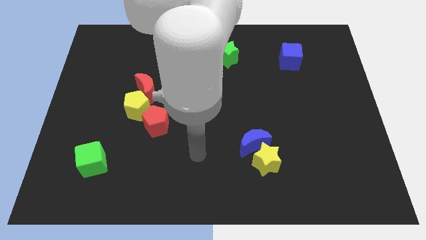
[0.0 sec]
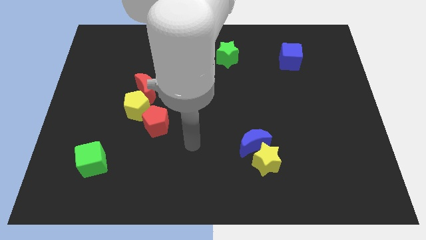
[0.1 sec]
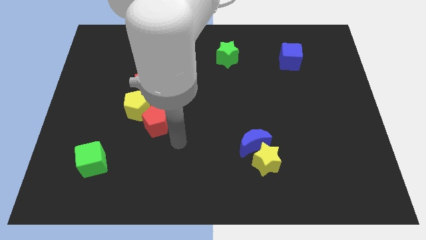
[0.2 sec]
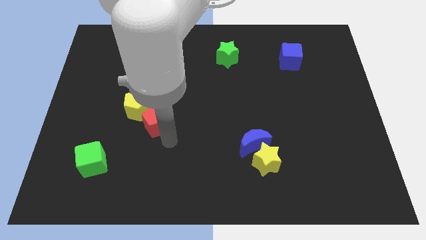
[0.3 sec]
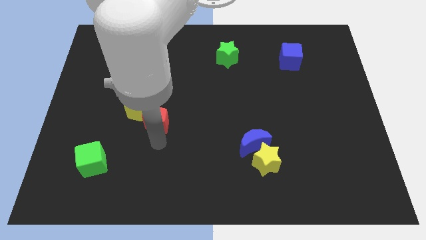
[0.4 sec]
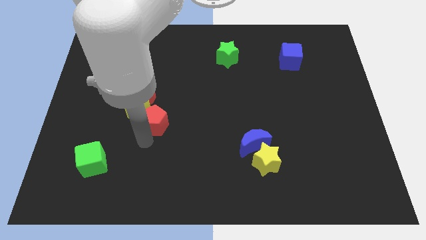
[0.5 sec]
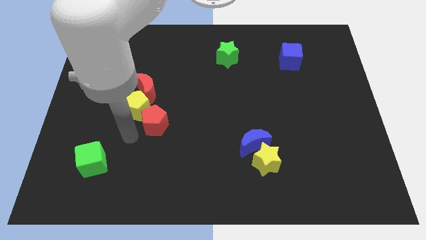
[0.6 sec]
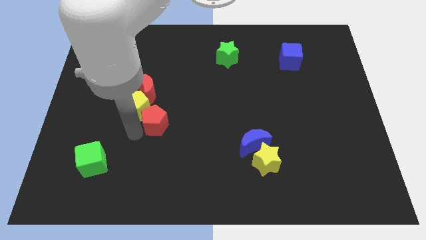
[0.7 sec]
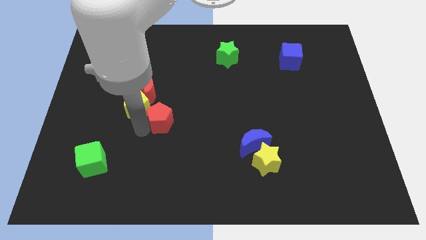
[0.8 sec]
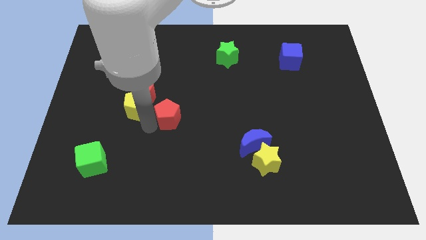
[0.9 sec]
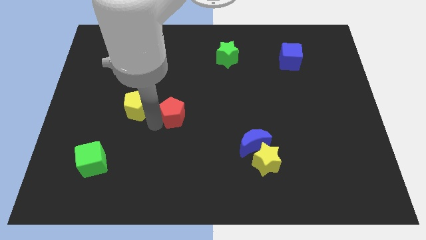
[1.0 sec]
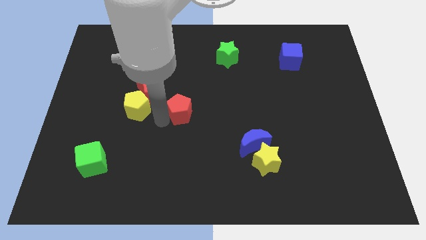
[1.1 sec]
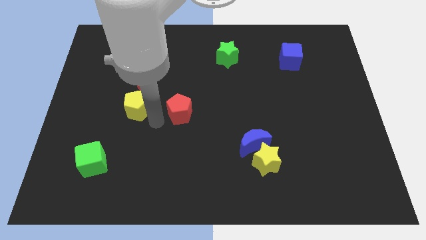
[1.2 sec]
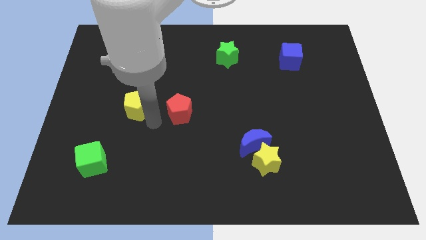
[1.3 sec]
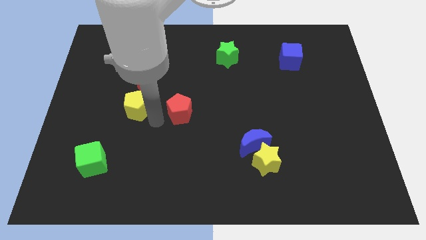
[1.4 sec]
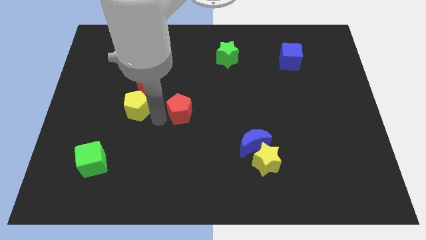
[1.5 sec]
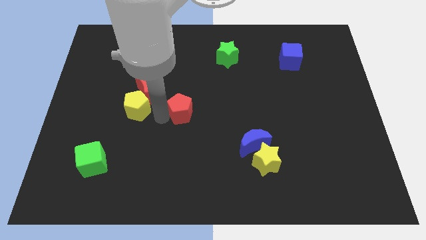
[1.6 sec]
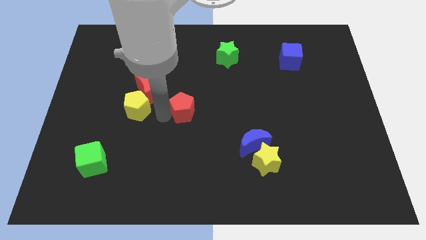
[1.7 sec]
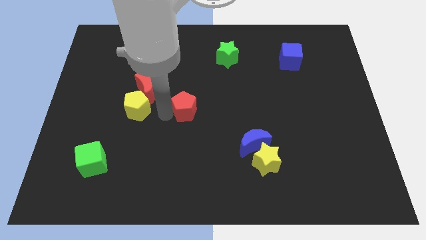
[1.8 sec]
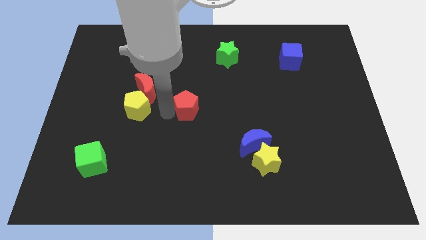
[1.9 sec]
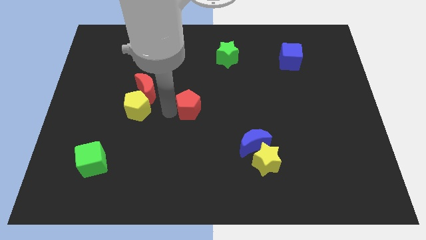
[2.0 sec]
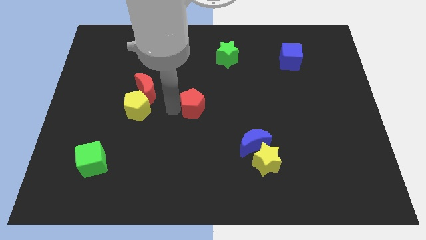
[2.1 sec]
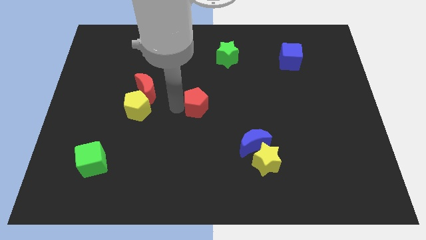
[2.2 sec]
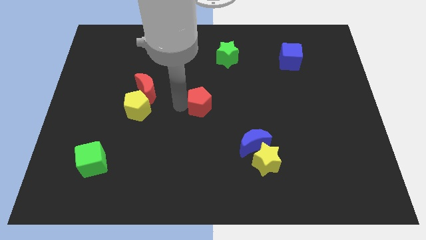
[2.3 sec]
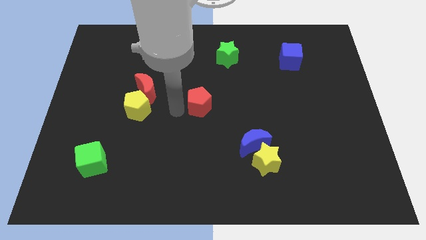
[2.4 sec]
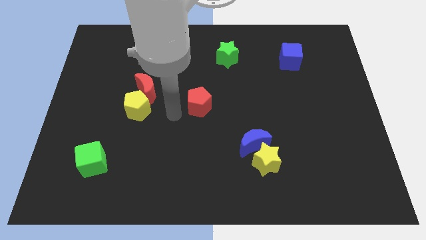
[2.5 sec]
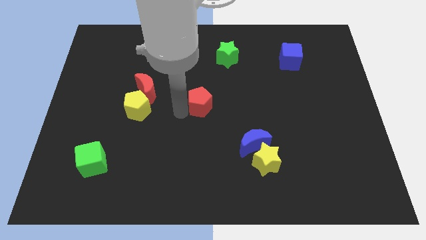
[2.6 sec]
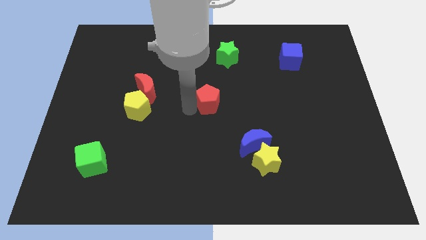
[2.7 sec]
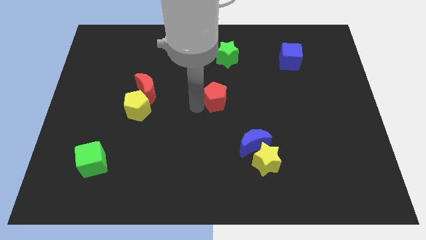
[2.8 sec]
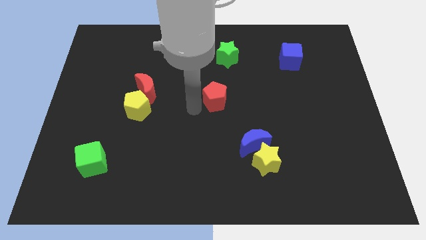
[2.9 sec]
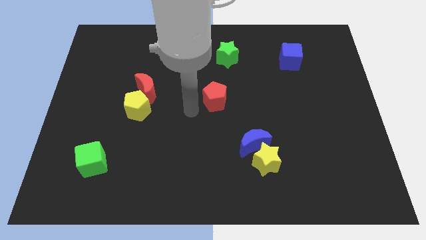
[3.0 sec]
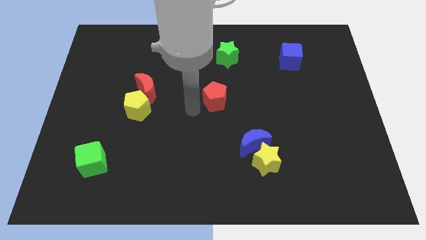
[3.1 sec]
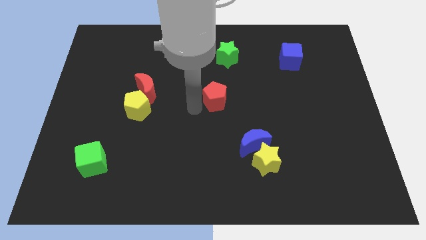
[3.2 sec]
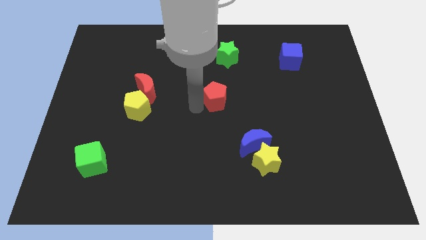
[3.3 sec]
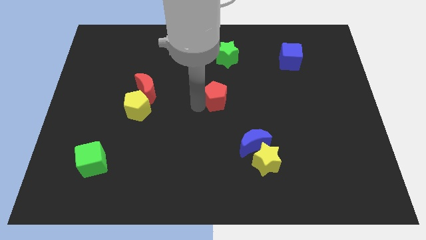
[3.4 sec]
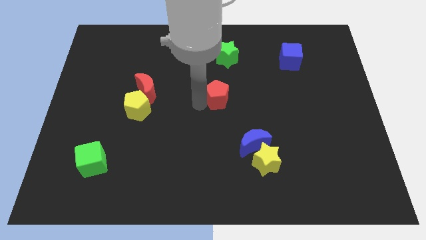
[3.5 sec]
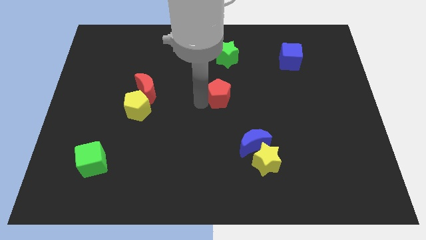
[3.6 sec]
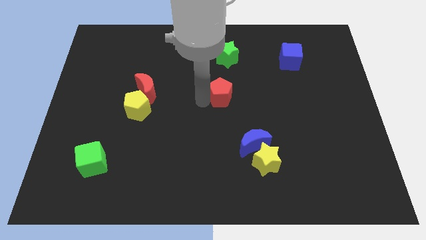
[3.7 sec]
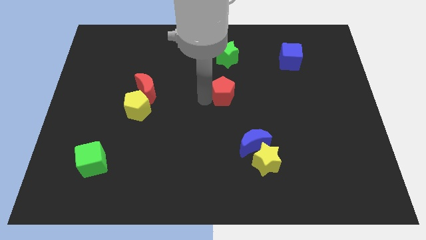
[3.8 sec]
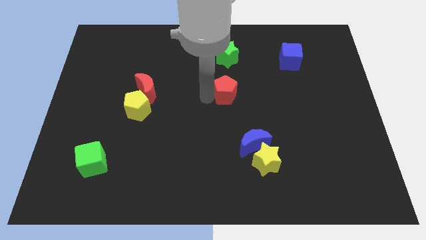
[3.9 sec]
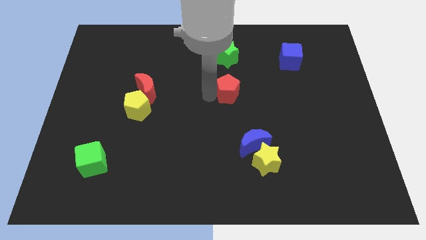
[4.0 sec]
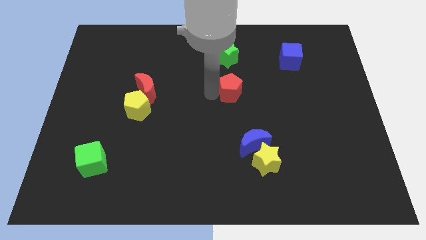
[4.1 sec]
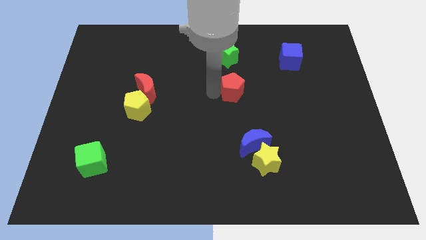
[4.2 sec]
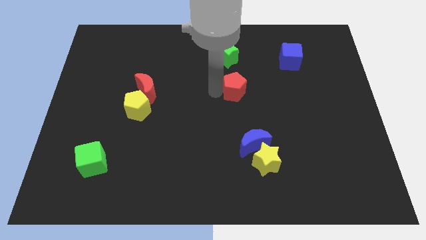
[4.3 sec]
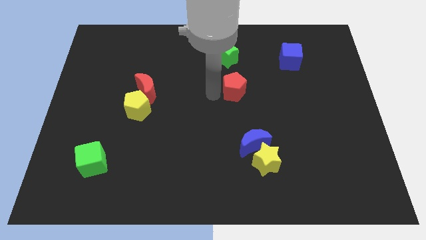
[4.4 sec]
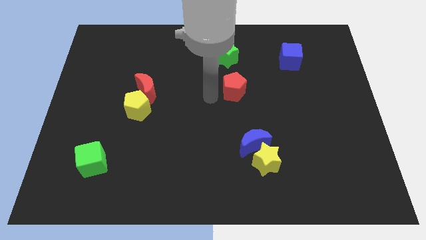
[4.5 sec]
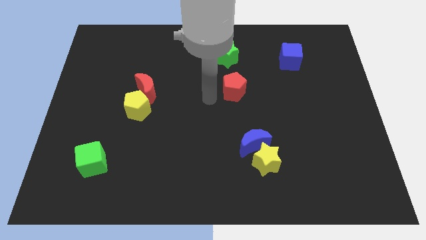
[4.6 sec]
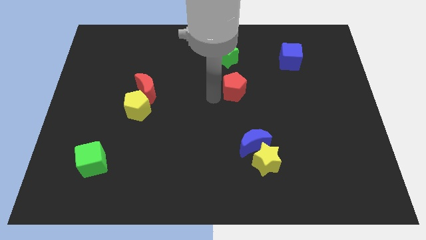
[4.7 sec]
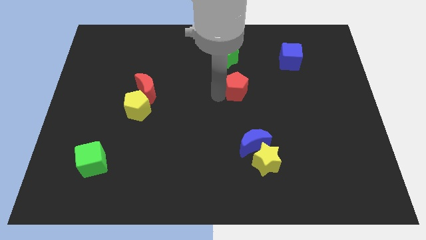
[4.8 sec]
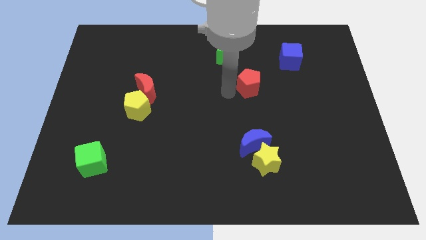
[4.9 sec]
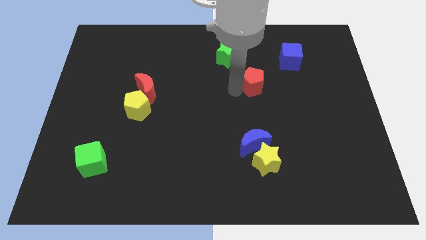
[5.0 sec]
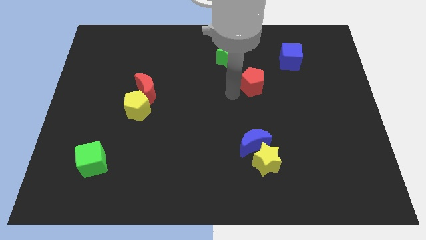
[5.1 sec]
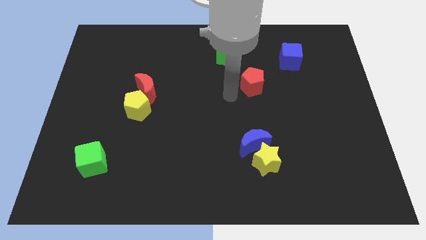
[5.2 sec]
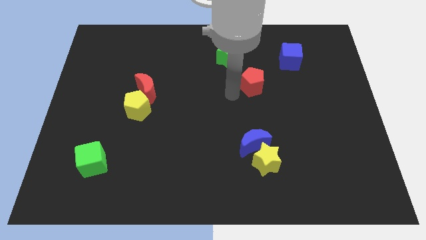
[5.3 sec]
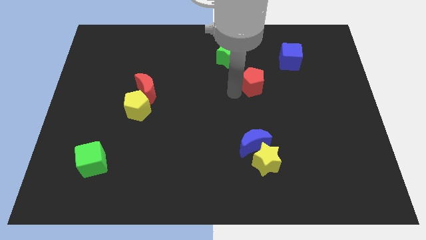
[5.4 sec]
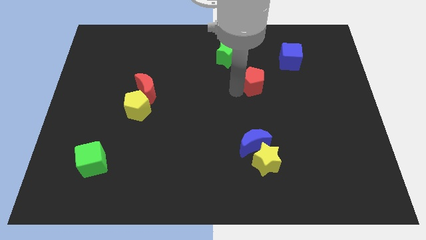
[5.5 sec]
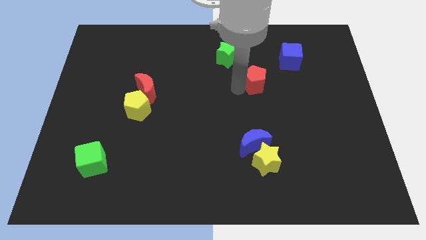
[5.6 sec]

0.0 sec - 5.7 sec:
put the red pentagon to the bottom left side of the blue cube

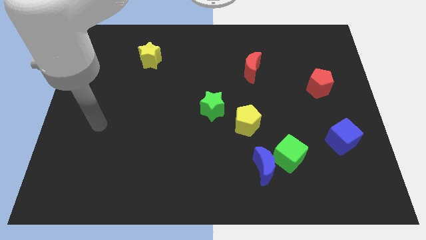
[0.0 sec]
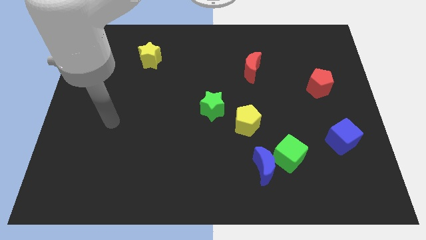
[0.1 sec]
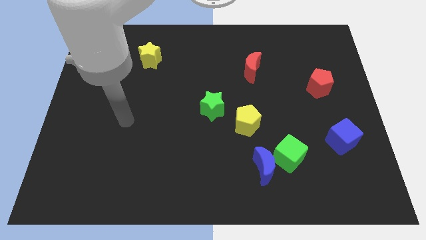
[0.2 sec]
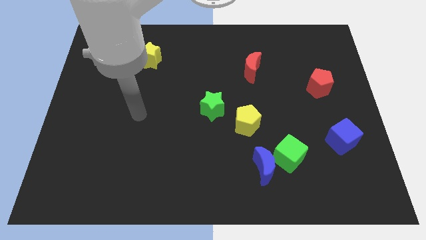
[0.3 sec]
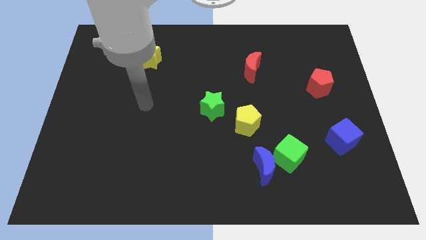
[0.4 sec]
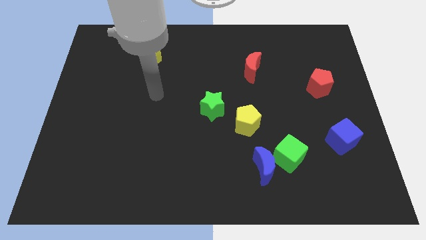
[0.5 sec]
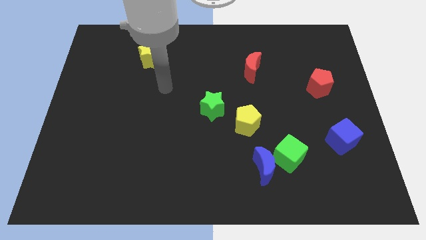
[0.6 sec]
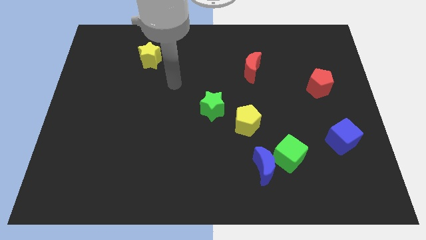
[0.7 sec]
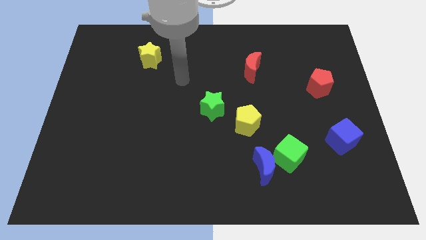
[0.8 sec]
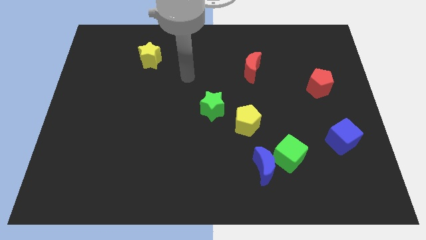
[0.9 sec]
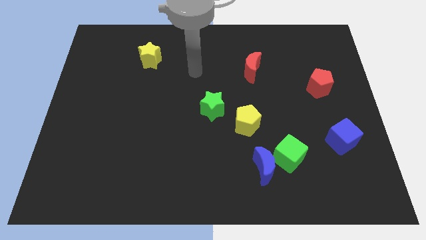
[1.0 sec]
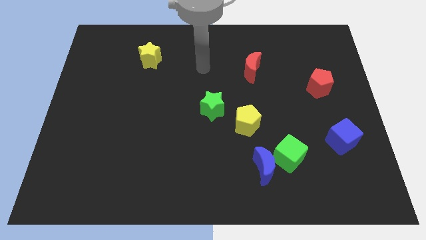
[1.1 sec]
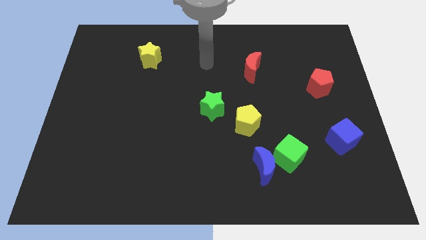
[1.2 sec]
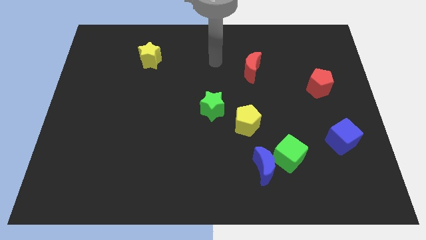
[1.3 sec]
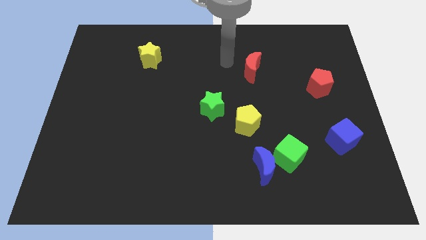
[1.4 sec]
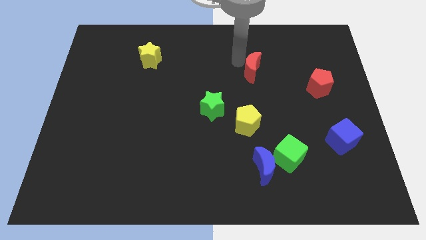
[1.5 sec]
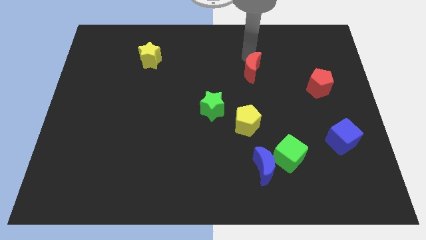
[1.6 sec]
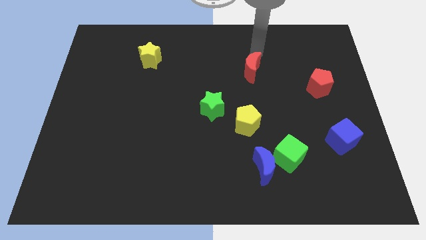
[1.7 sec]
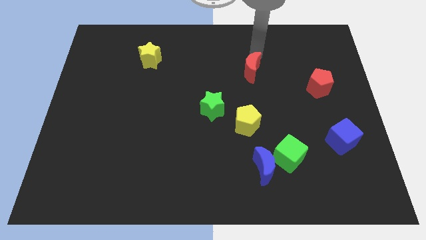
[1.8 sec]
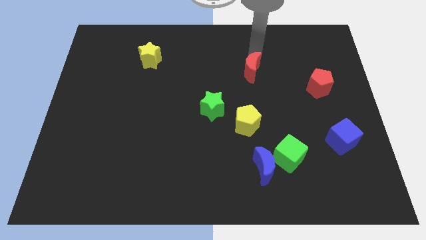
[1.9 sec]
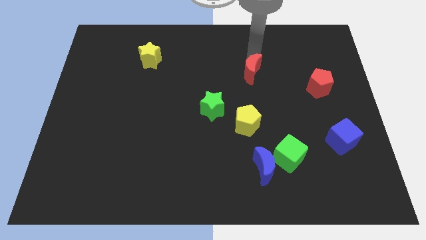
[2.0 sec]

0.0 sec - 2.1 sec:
slide the red moon to the top of the yellow pentagon
